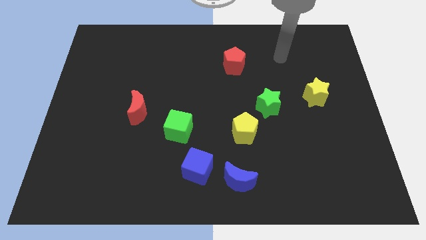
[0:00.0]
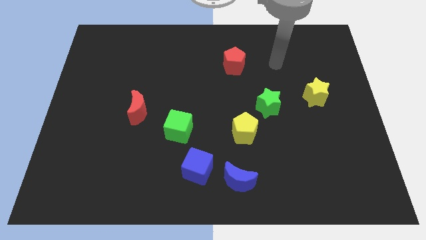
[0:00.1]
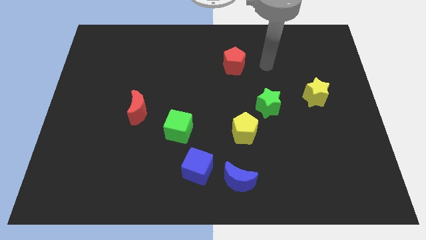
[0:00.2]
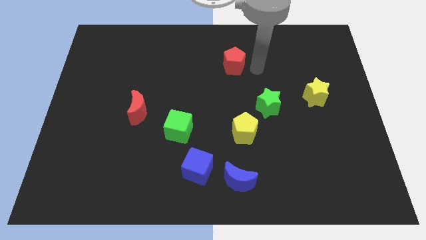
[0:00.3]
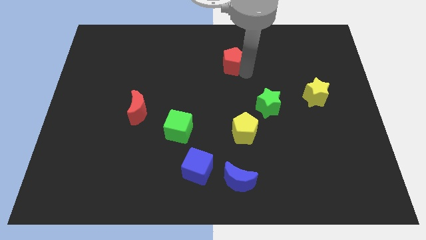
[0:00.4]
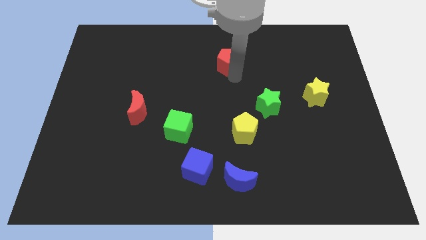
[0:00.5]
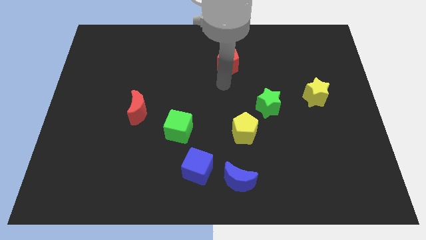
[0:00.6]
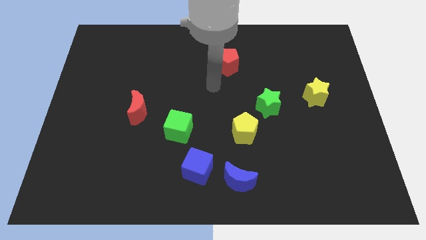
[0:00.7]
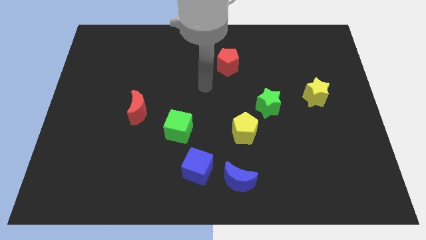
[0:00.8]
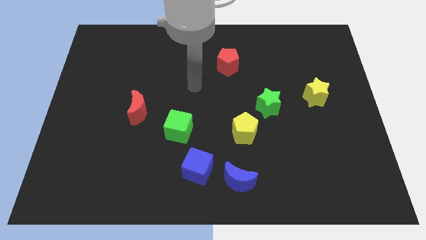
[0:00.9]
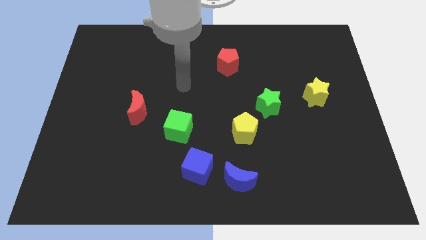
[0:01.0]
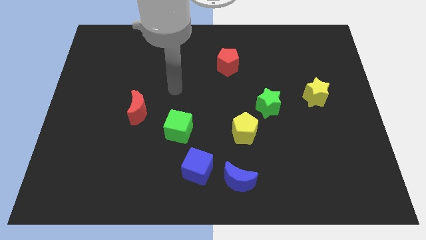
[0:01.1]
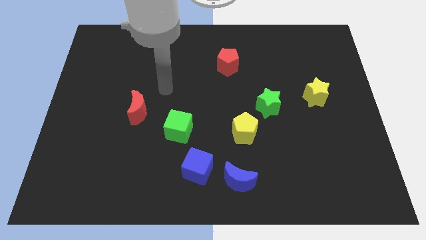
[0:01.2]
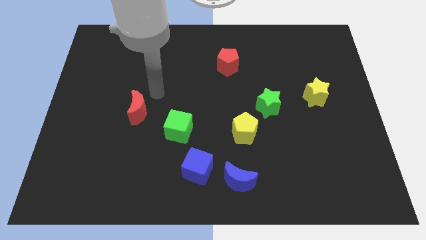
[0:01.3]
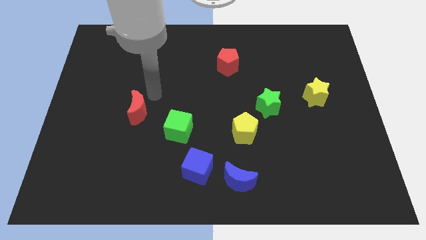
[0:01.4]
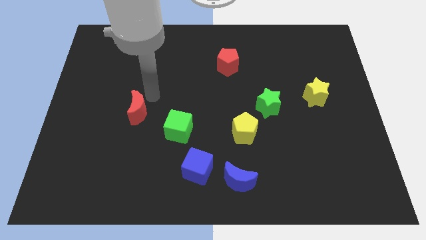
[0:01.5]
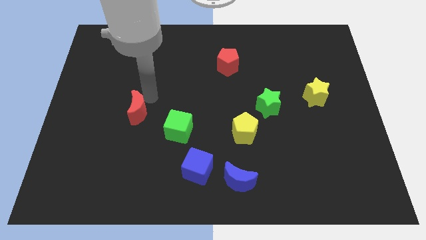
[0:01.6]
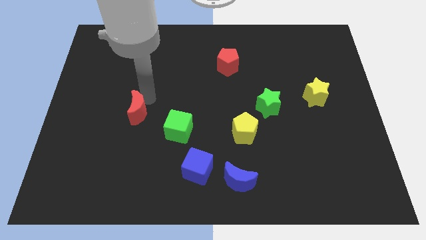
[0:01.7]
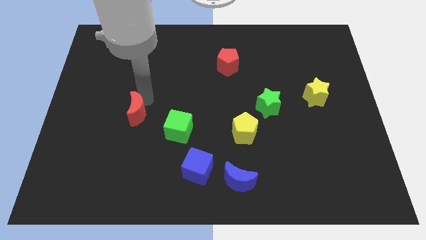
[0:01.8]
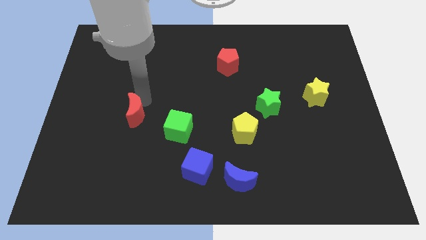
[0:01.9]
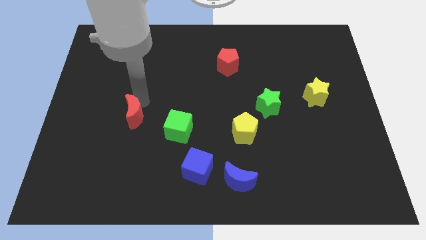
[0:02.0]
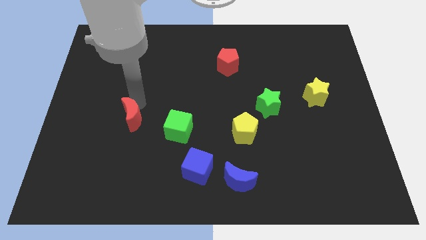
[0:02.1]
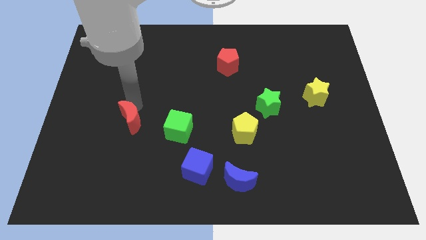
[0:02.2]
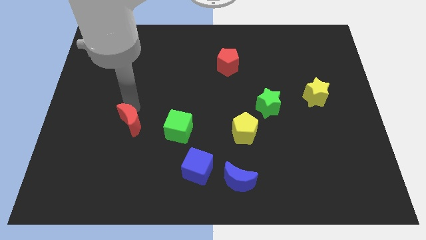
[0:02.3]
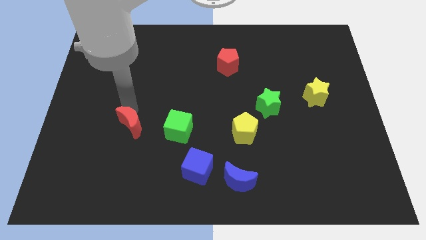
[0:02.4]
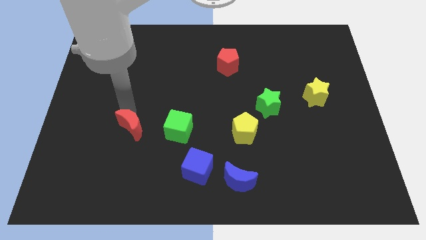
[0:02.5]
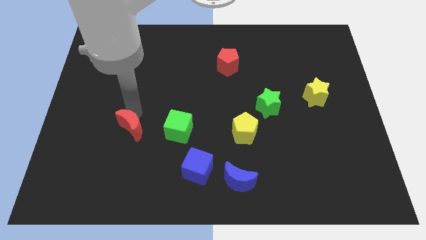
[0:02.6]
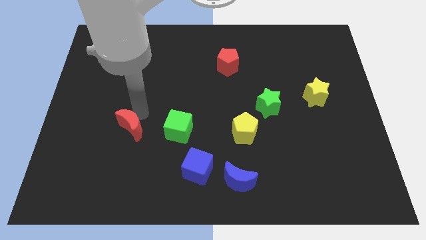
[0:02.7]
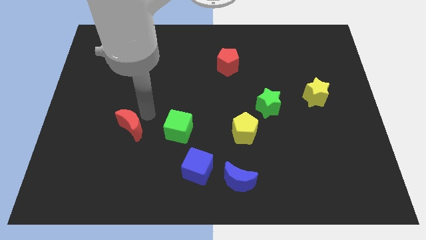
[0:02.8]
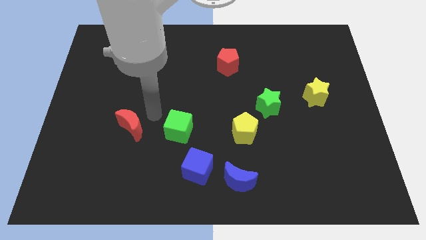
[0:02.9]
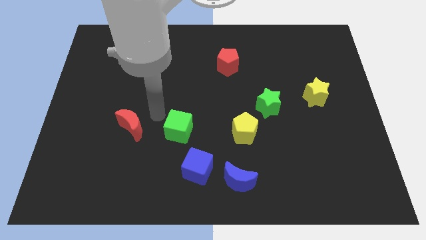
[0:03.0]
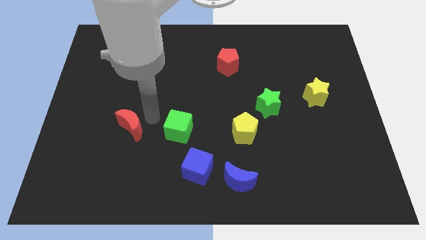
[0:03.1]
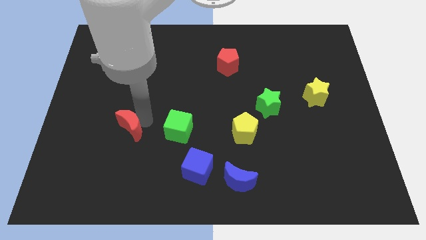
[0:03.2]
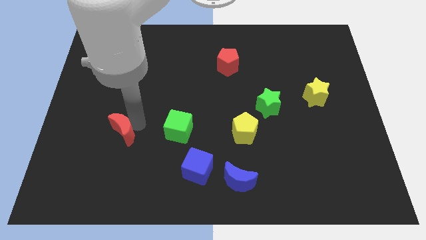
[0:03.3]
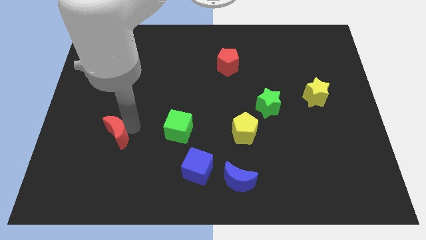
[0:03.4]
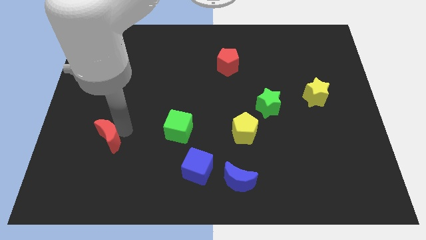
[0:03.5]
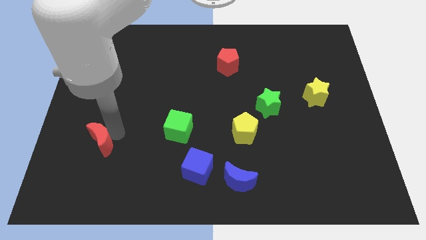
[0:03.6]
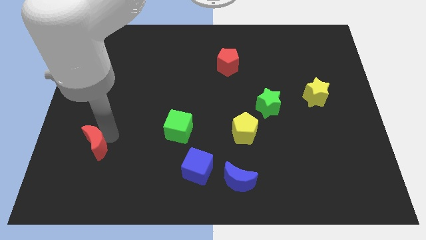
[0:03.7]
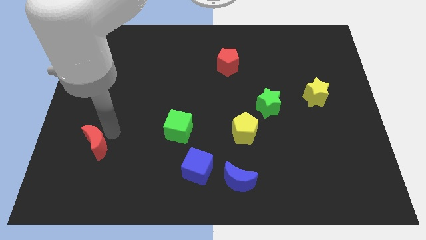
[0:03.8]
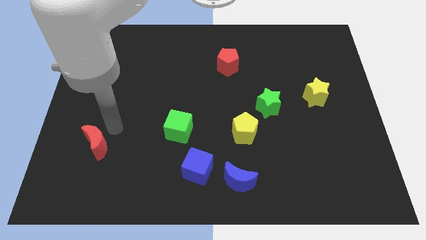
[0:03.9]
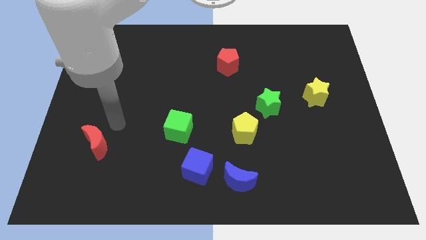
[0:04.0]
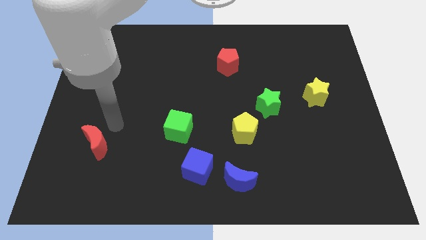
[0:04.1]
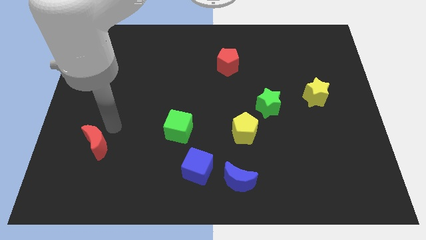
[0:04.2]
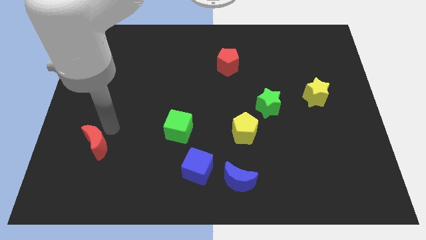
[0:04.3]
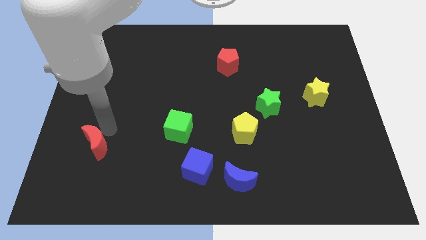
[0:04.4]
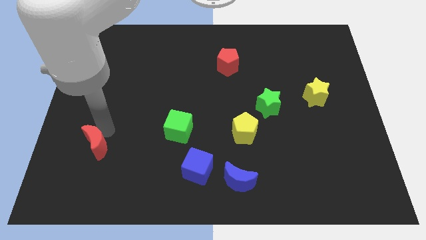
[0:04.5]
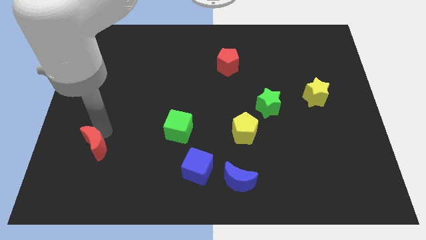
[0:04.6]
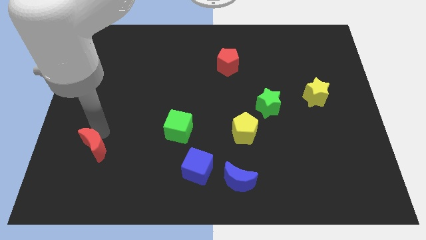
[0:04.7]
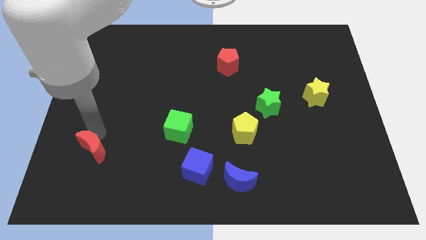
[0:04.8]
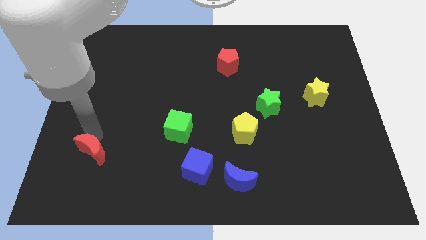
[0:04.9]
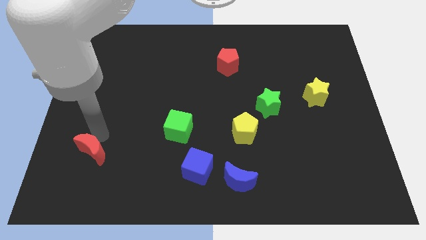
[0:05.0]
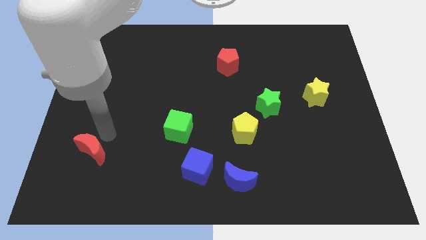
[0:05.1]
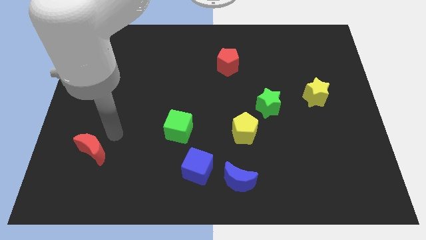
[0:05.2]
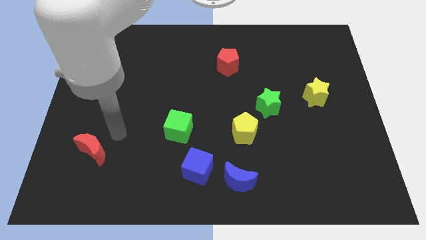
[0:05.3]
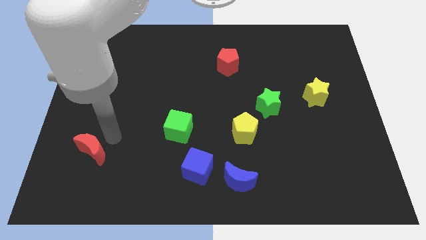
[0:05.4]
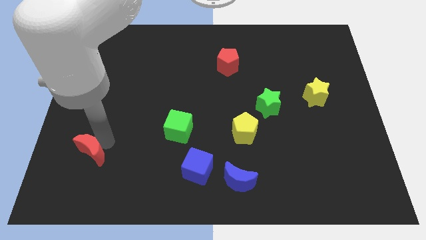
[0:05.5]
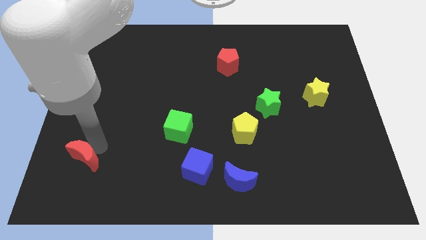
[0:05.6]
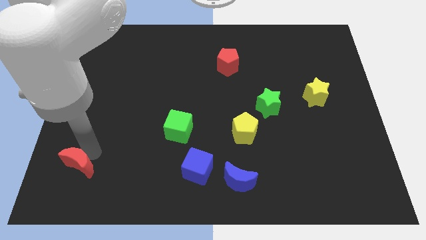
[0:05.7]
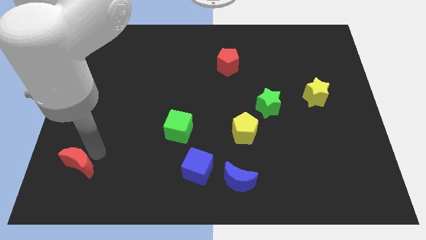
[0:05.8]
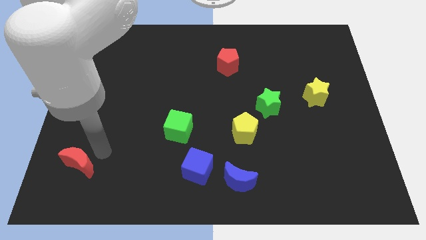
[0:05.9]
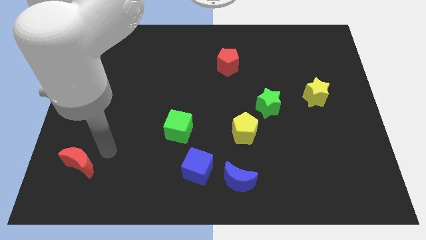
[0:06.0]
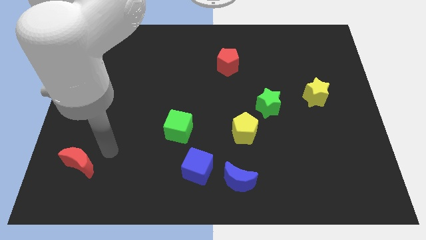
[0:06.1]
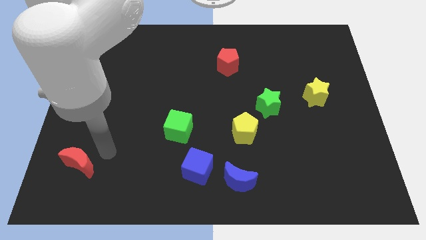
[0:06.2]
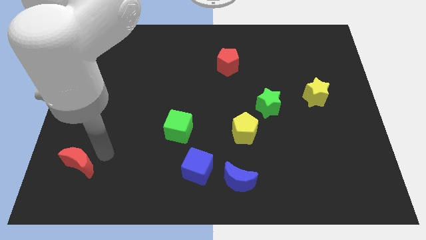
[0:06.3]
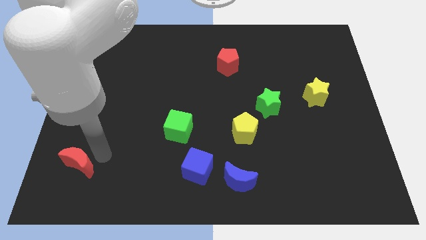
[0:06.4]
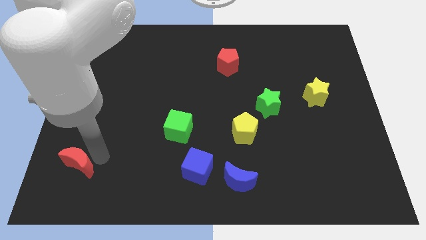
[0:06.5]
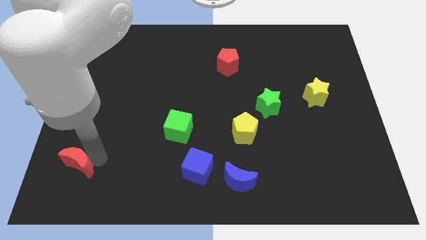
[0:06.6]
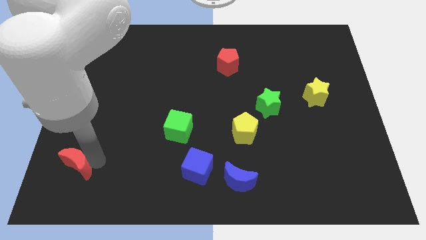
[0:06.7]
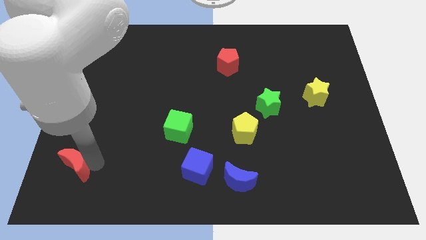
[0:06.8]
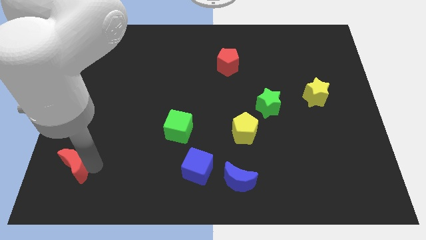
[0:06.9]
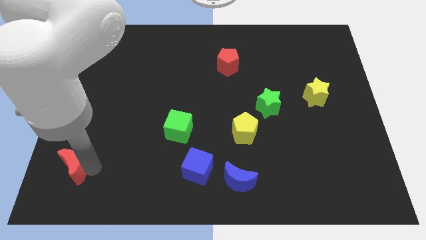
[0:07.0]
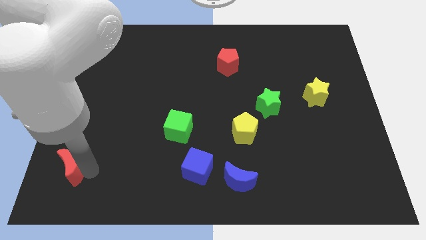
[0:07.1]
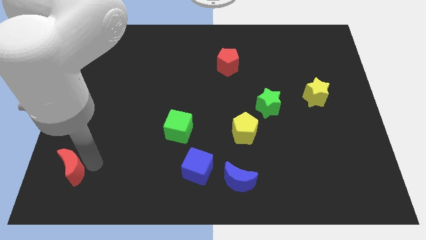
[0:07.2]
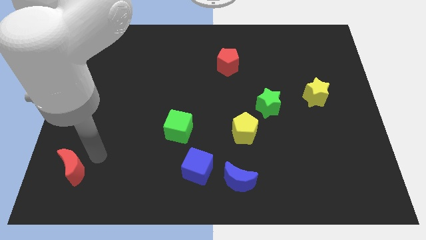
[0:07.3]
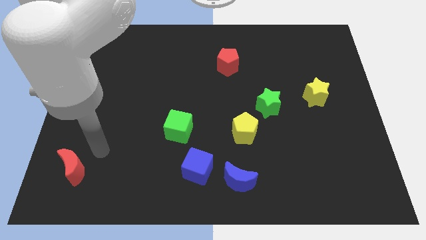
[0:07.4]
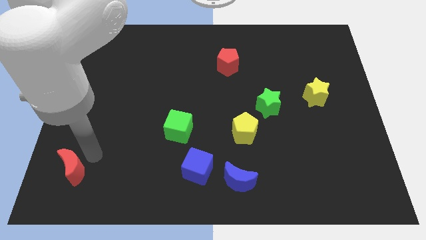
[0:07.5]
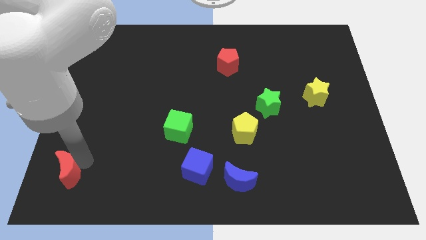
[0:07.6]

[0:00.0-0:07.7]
put the red moon to the bottom left corner
